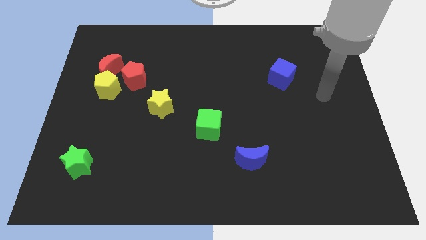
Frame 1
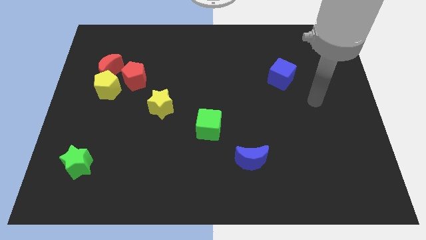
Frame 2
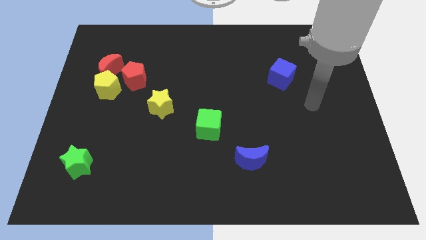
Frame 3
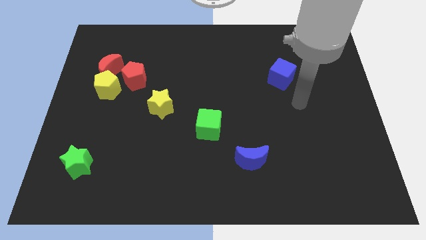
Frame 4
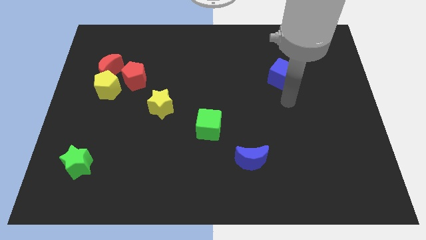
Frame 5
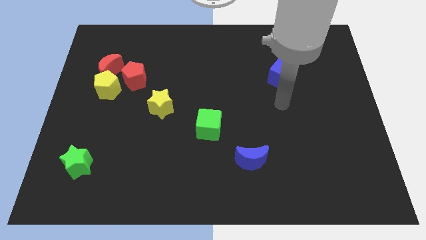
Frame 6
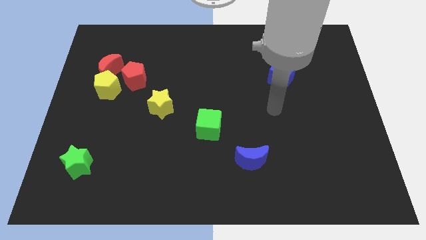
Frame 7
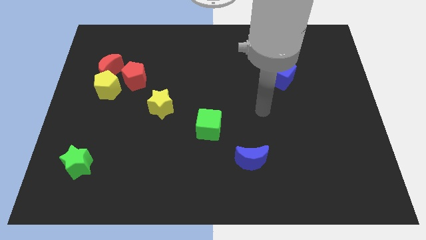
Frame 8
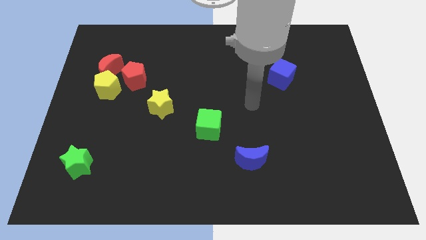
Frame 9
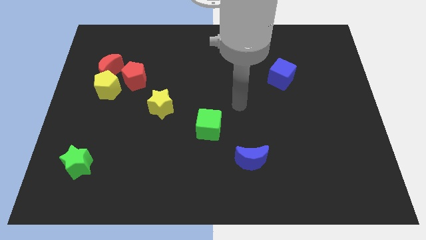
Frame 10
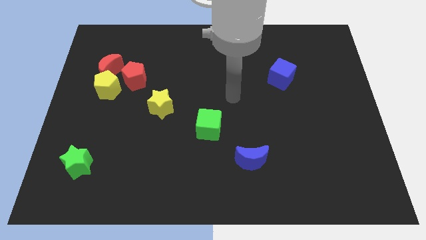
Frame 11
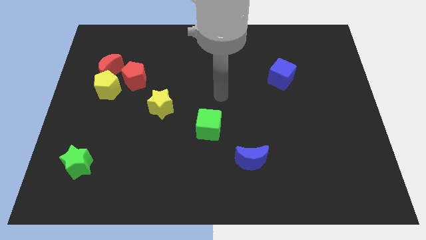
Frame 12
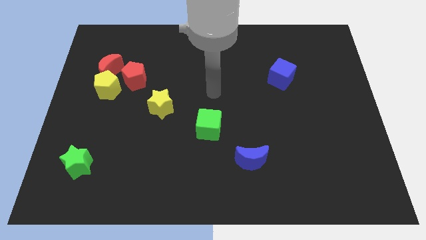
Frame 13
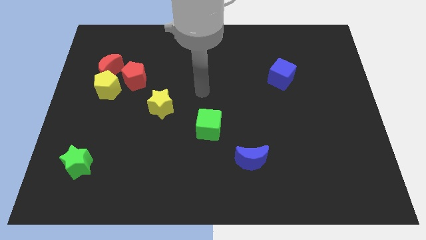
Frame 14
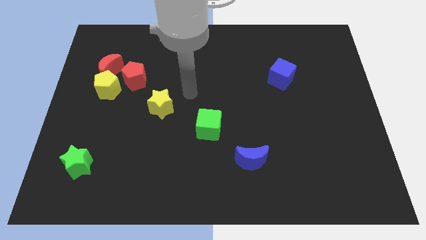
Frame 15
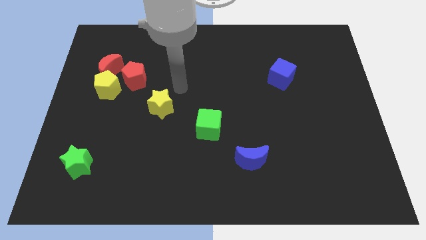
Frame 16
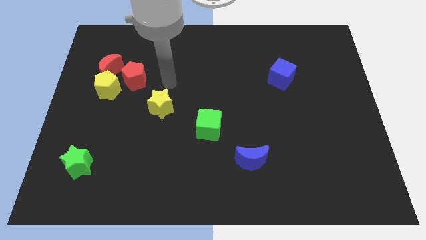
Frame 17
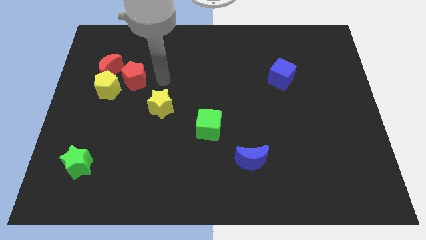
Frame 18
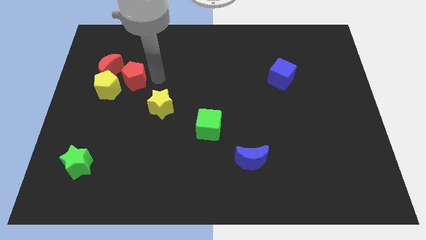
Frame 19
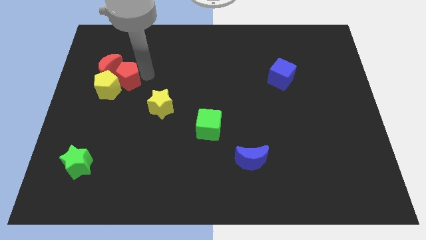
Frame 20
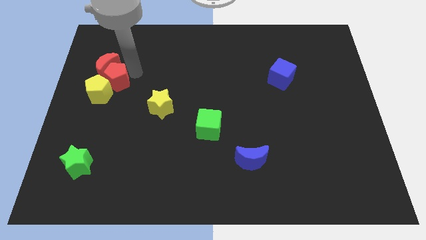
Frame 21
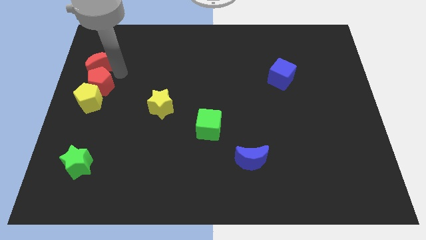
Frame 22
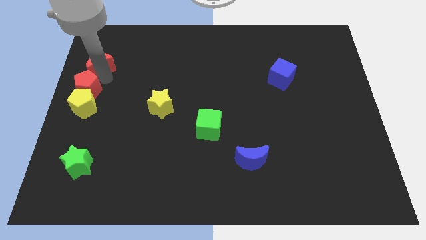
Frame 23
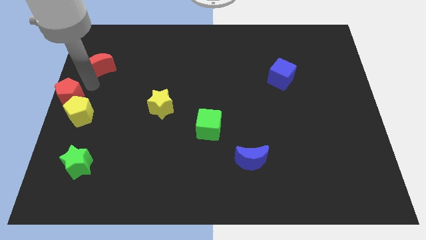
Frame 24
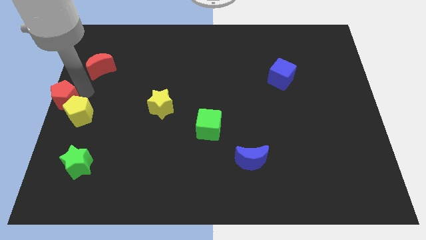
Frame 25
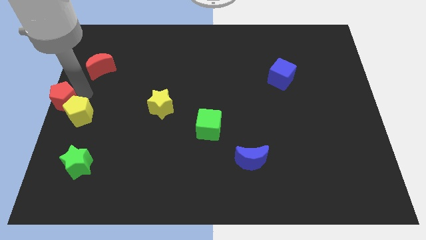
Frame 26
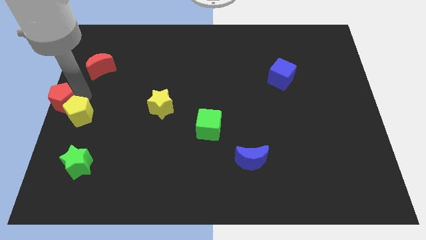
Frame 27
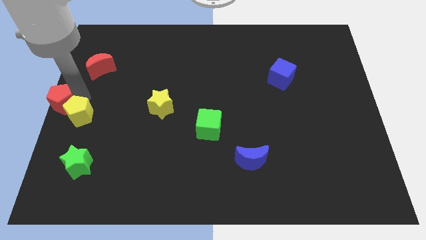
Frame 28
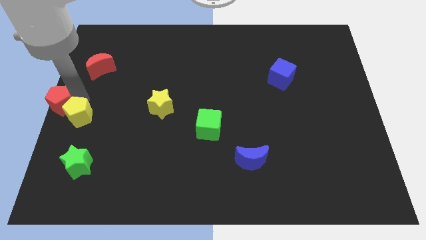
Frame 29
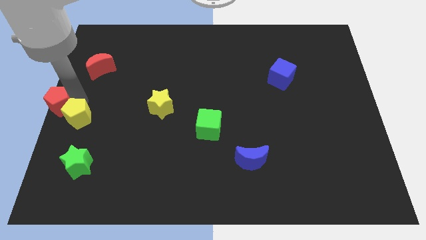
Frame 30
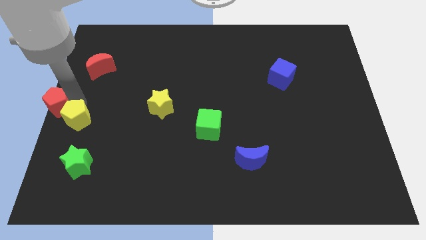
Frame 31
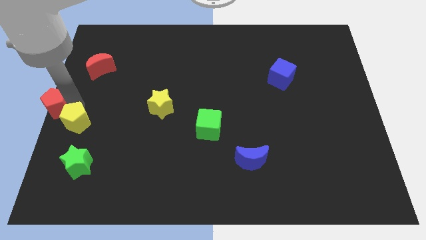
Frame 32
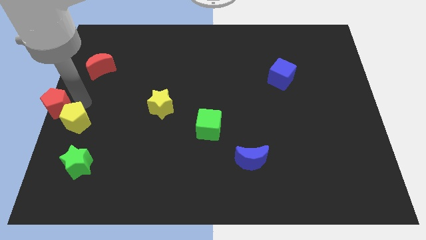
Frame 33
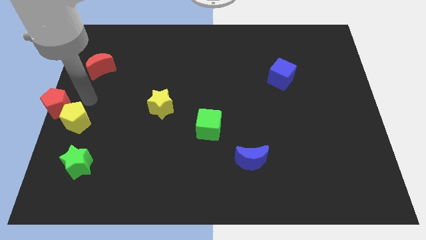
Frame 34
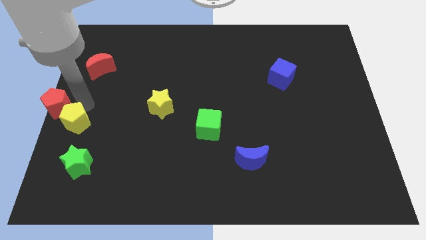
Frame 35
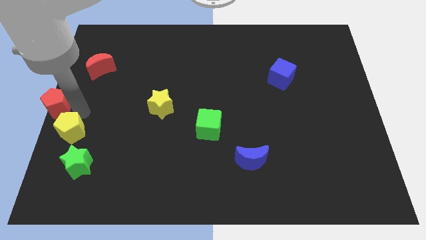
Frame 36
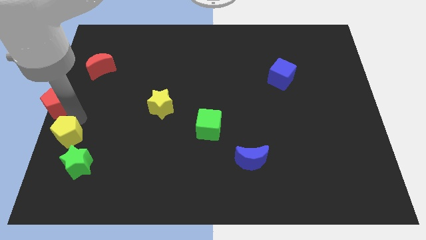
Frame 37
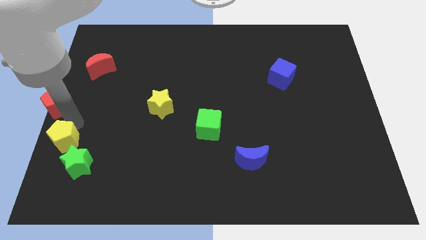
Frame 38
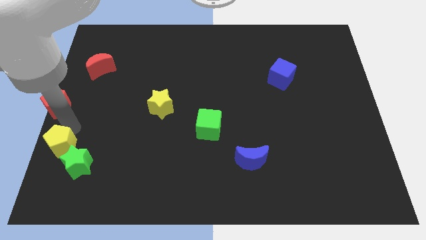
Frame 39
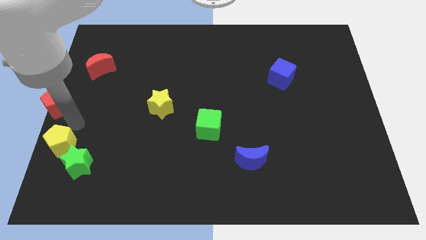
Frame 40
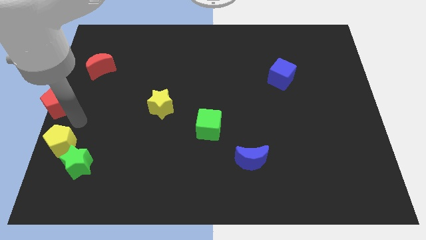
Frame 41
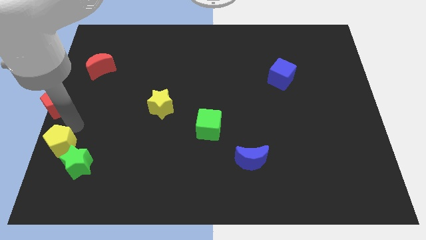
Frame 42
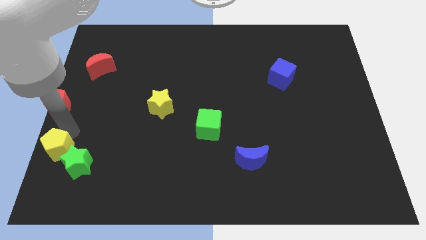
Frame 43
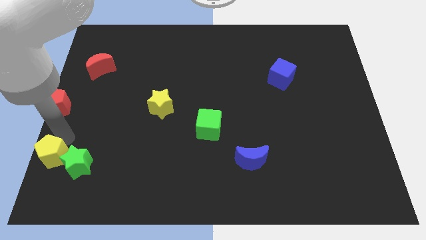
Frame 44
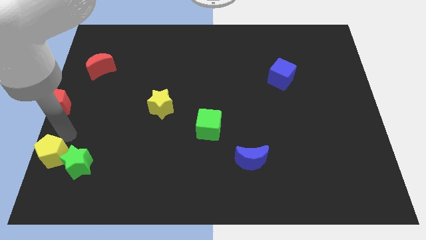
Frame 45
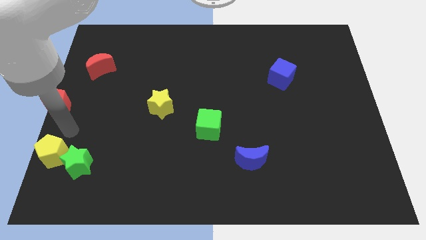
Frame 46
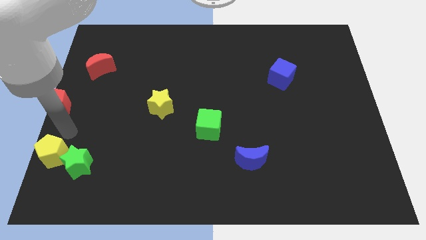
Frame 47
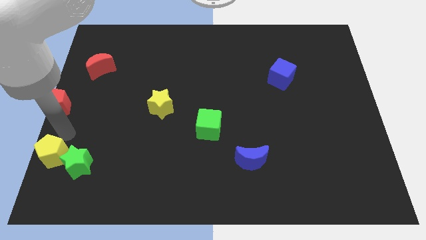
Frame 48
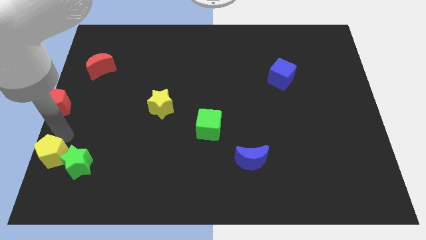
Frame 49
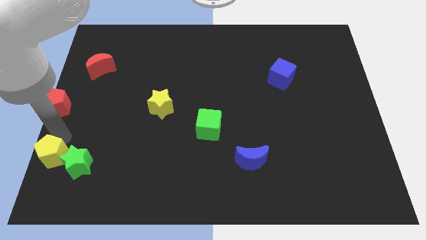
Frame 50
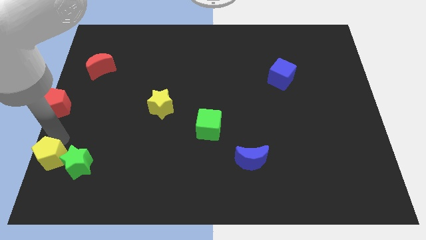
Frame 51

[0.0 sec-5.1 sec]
put the yellow pentagon to the lower left corner

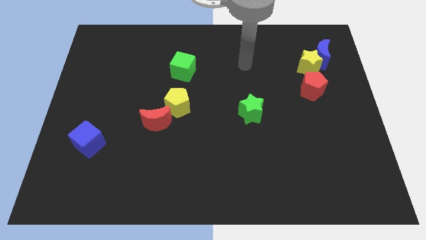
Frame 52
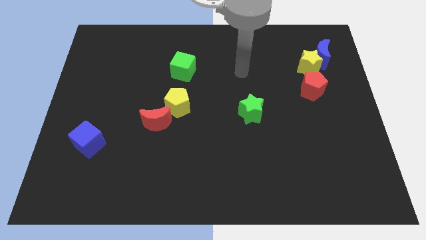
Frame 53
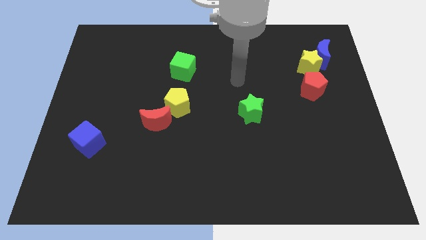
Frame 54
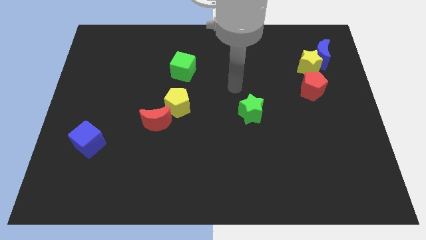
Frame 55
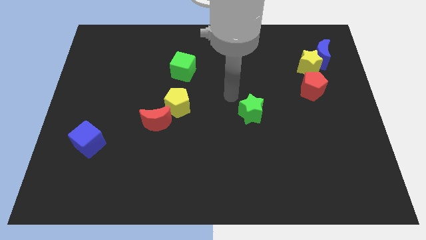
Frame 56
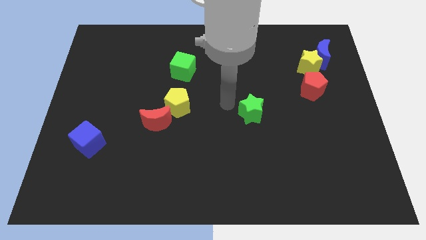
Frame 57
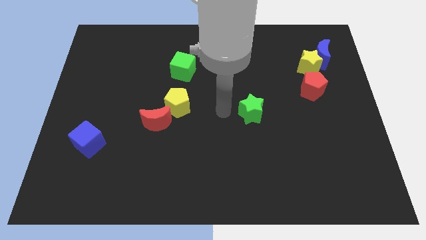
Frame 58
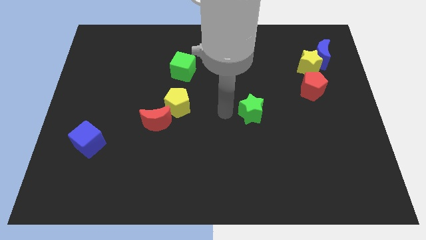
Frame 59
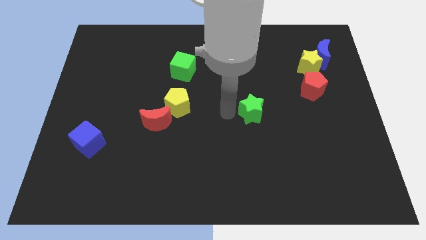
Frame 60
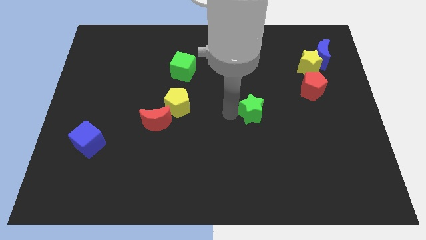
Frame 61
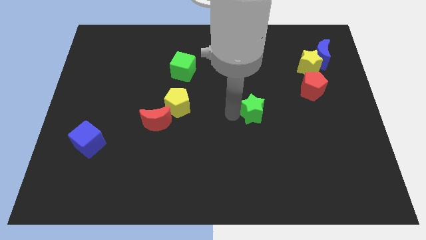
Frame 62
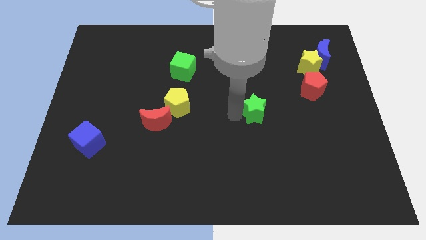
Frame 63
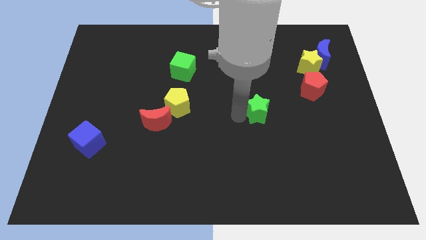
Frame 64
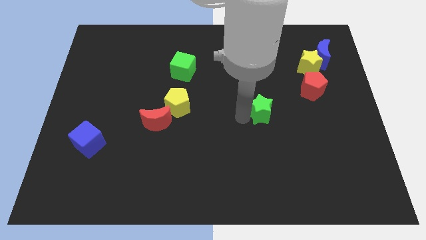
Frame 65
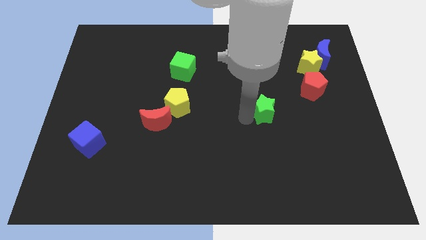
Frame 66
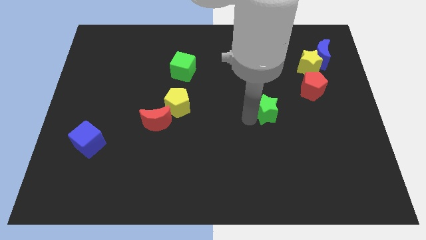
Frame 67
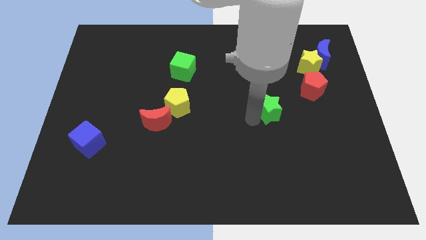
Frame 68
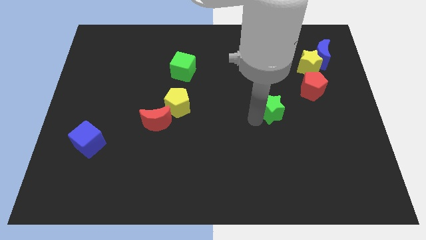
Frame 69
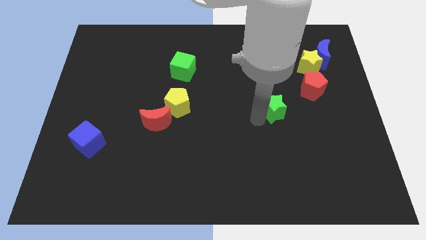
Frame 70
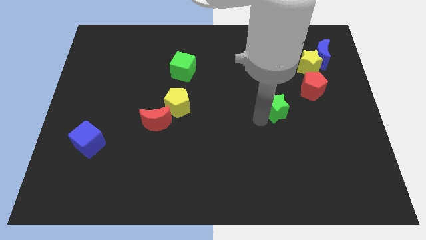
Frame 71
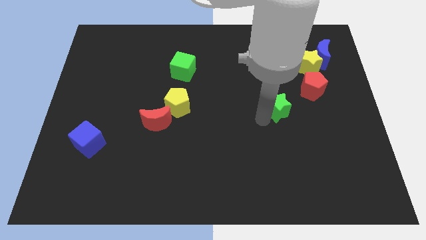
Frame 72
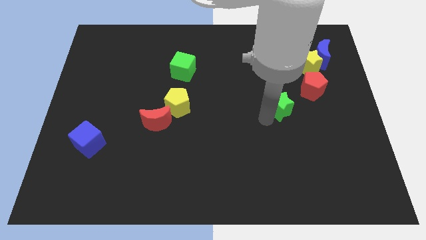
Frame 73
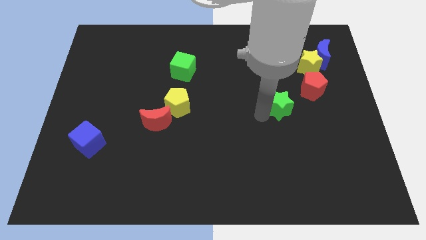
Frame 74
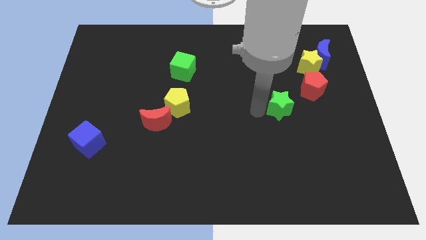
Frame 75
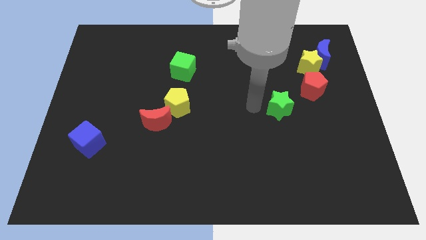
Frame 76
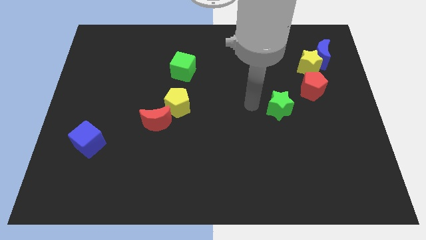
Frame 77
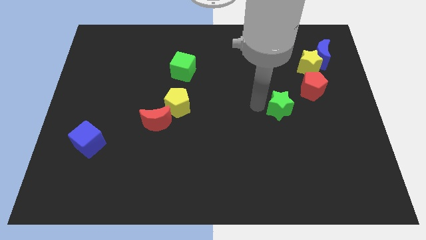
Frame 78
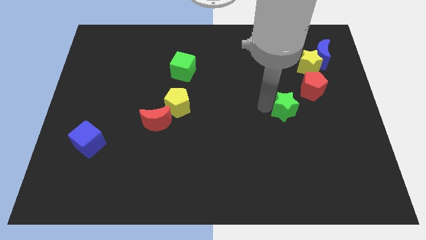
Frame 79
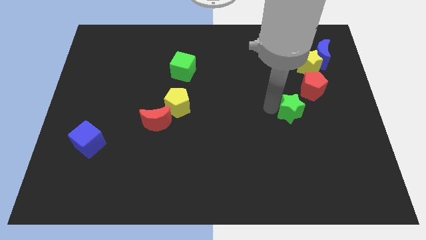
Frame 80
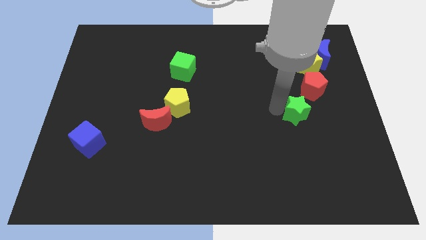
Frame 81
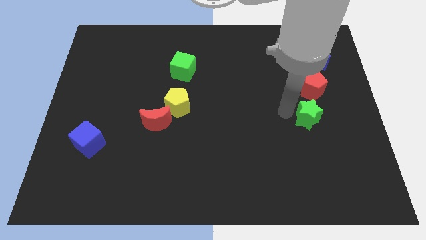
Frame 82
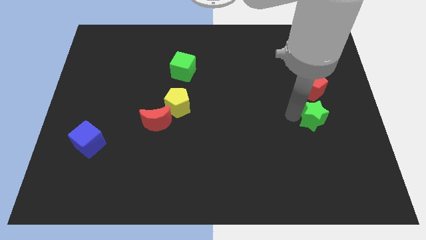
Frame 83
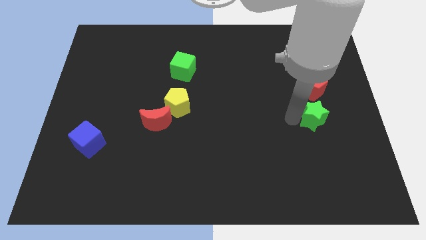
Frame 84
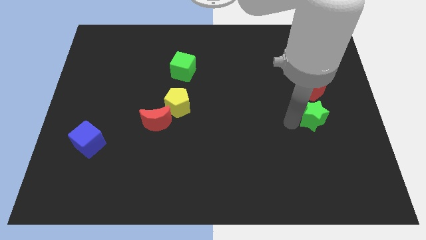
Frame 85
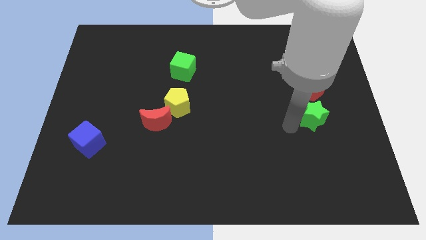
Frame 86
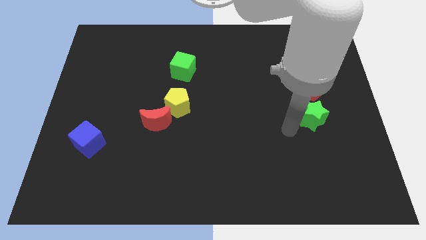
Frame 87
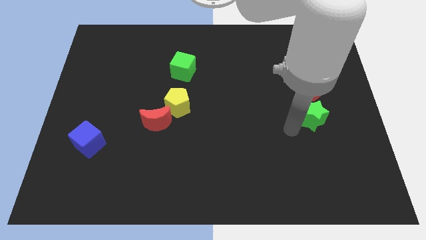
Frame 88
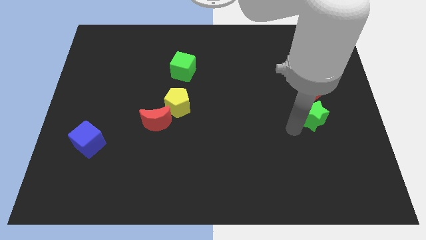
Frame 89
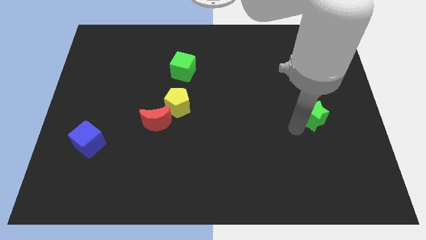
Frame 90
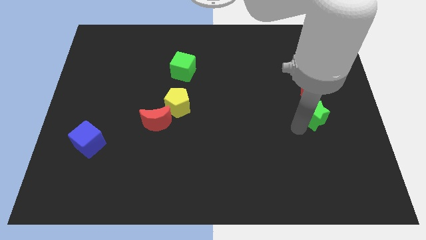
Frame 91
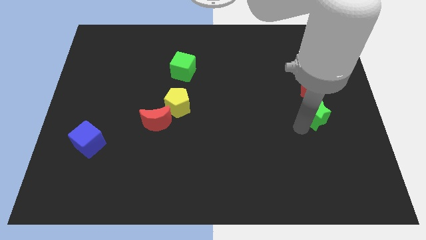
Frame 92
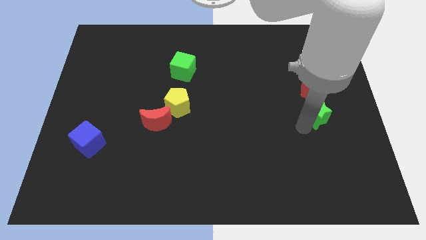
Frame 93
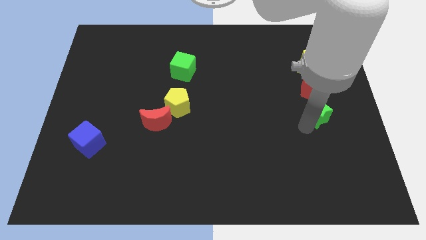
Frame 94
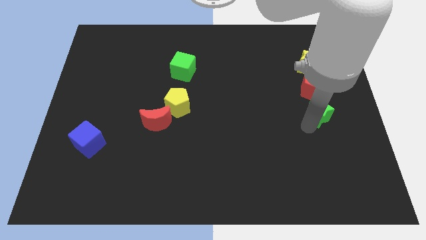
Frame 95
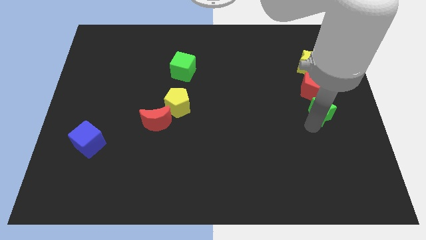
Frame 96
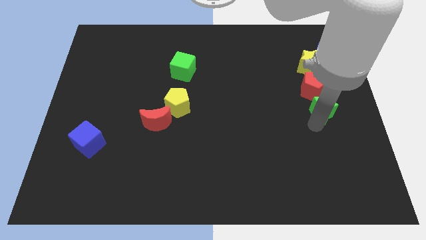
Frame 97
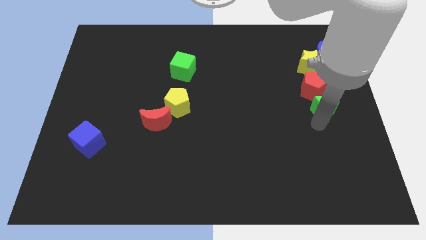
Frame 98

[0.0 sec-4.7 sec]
put the green star to the right side of the board
